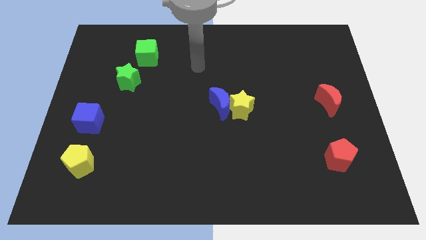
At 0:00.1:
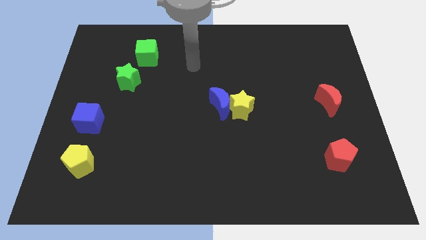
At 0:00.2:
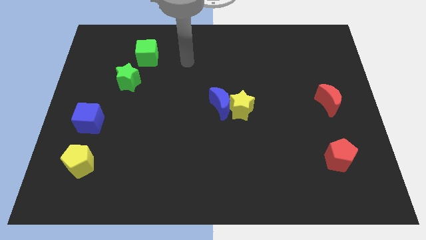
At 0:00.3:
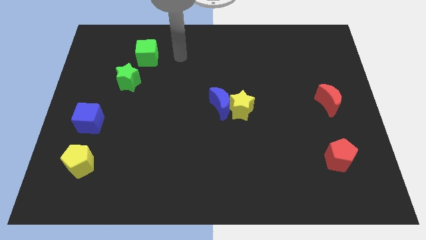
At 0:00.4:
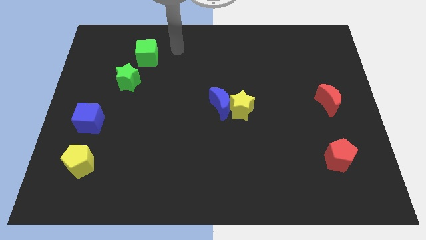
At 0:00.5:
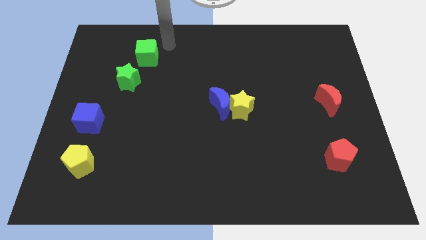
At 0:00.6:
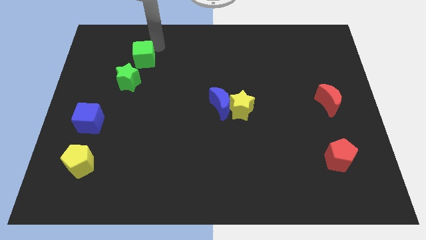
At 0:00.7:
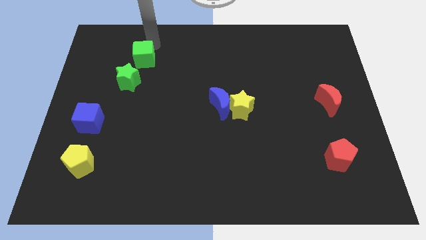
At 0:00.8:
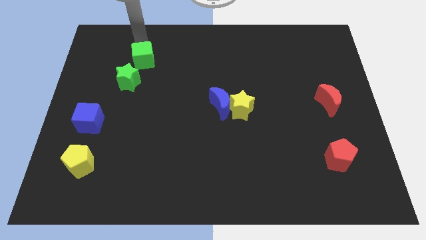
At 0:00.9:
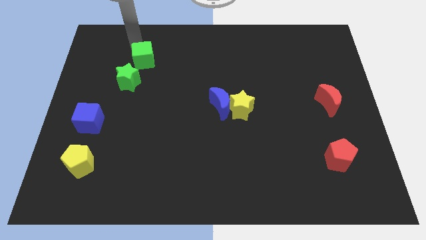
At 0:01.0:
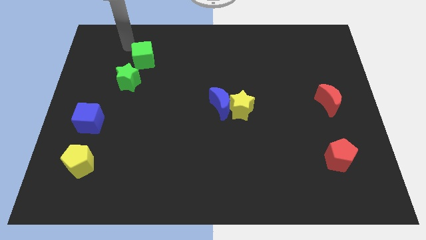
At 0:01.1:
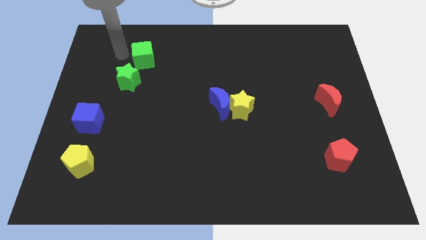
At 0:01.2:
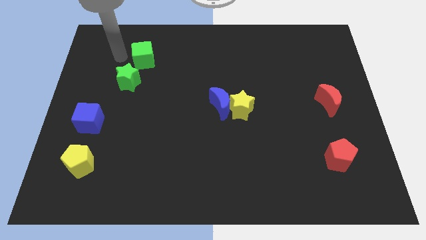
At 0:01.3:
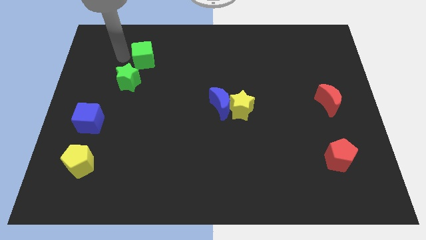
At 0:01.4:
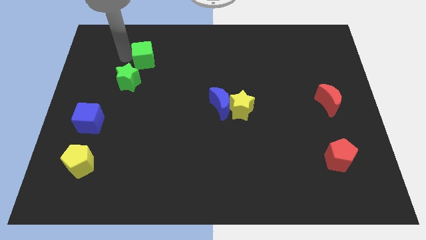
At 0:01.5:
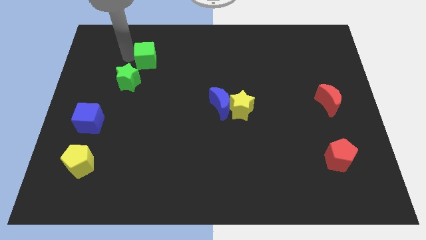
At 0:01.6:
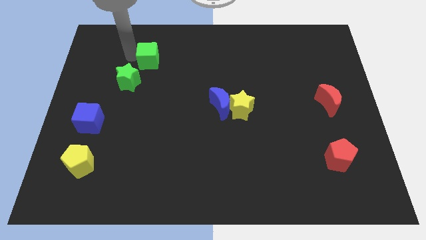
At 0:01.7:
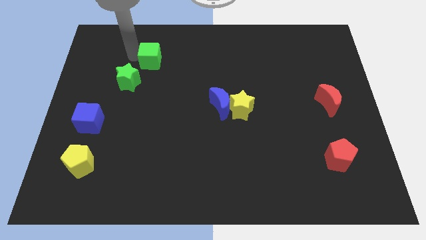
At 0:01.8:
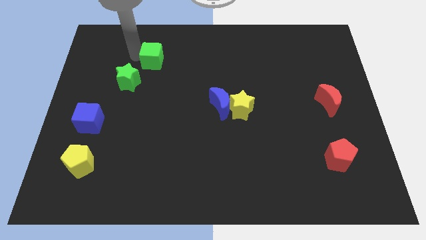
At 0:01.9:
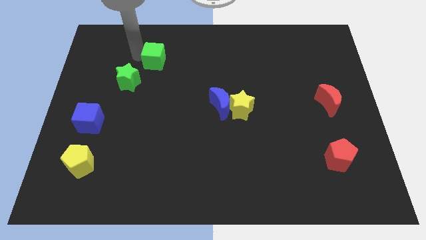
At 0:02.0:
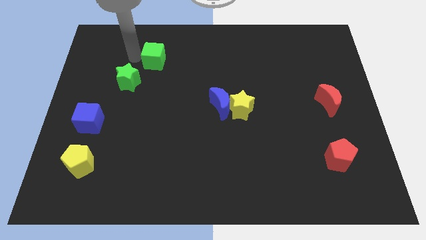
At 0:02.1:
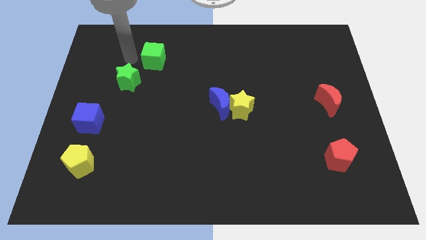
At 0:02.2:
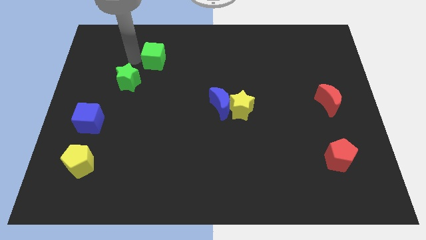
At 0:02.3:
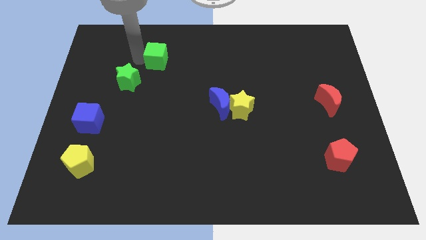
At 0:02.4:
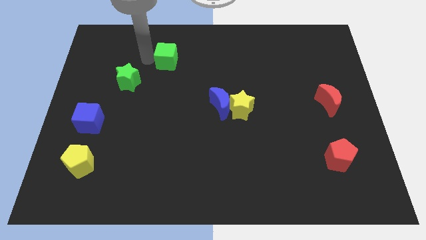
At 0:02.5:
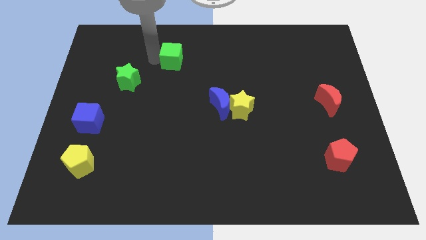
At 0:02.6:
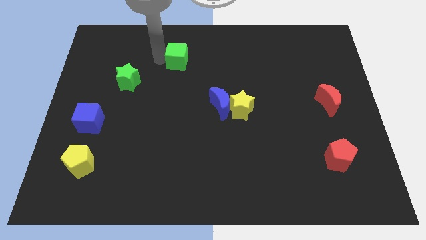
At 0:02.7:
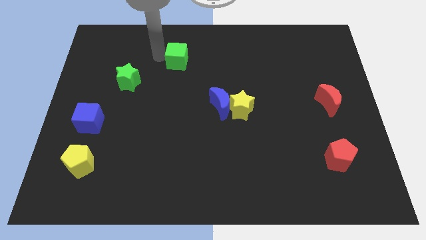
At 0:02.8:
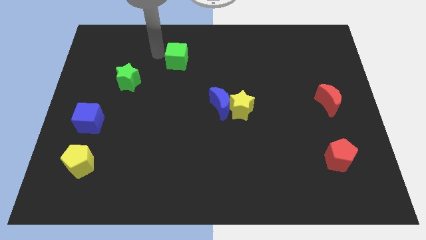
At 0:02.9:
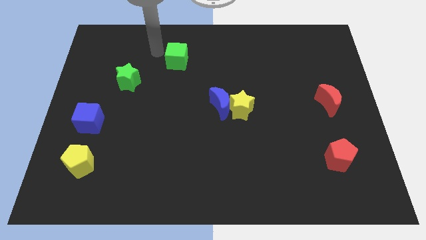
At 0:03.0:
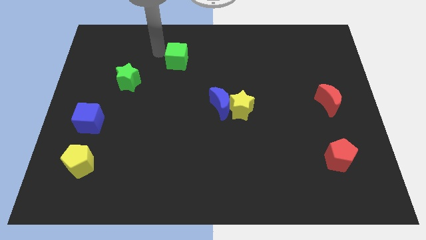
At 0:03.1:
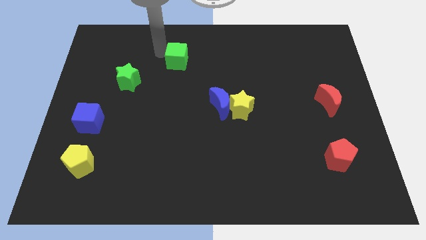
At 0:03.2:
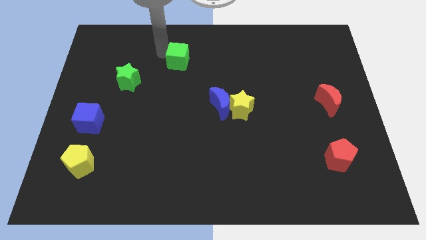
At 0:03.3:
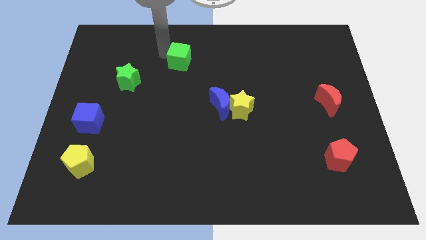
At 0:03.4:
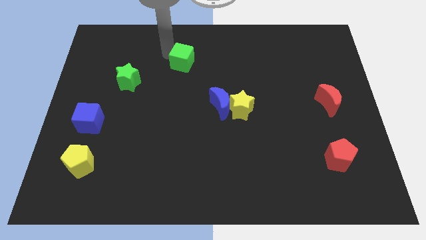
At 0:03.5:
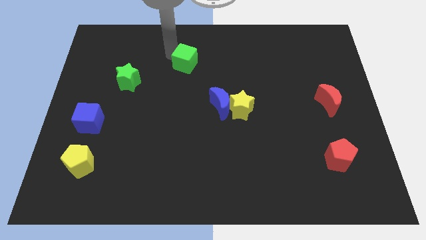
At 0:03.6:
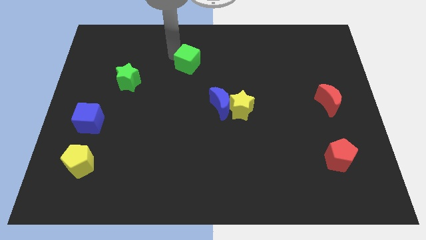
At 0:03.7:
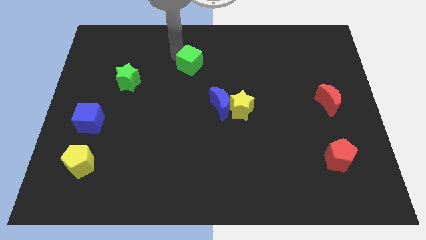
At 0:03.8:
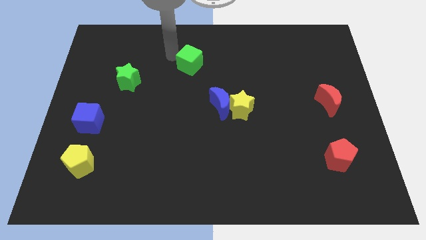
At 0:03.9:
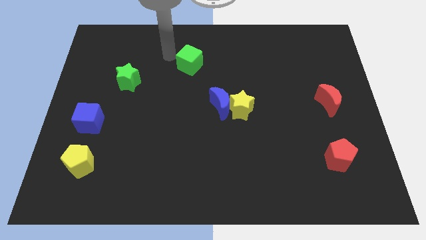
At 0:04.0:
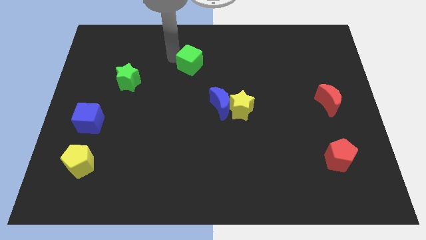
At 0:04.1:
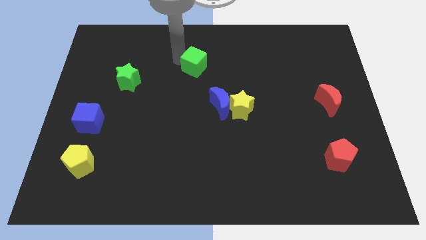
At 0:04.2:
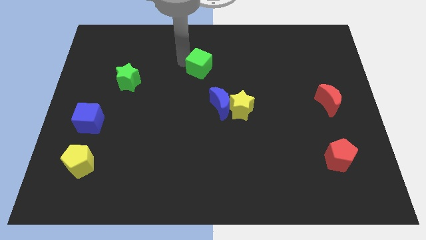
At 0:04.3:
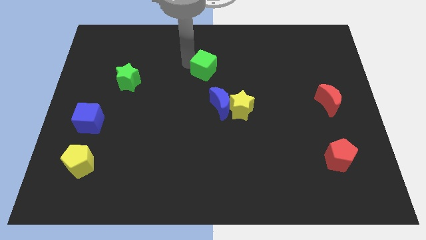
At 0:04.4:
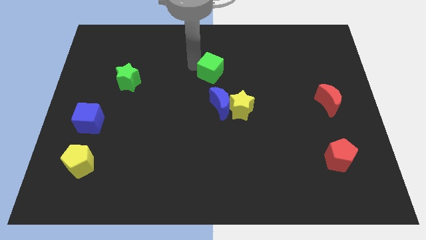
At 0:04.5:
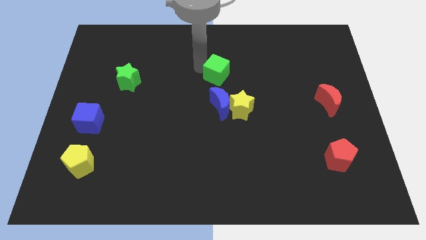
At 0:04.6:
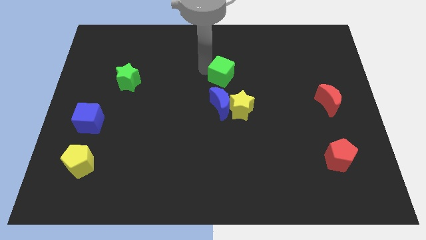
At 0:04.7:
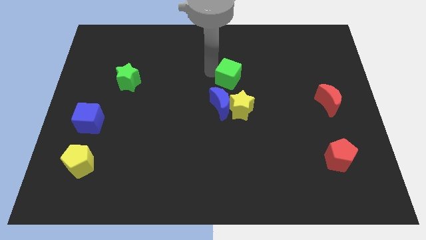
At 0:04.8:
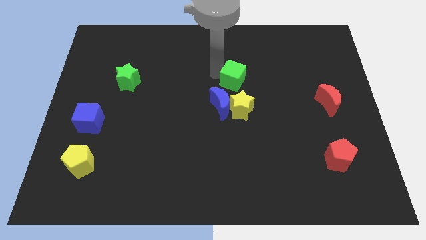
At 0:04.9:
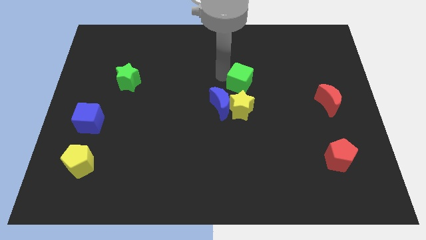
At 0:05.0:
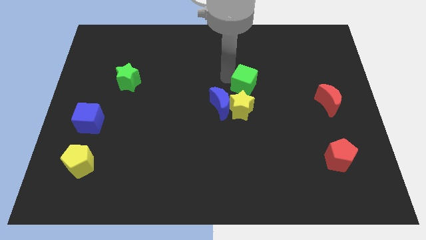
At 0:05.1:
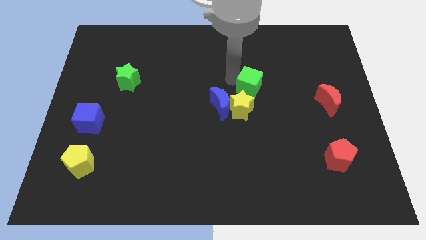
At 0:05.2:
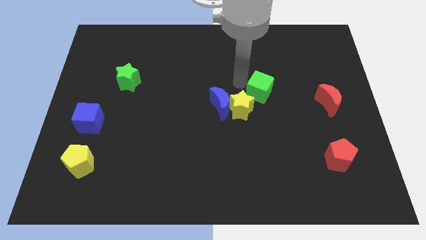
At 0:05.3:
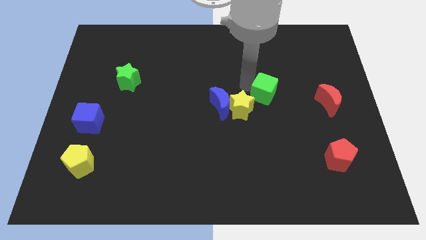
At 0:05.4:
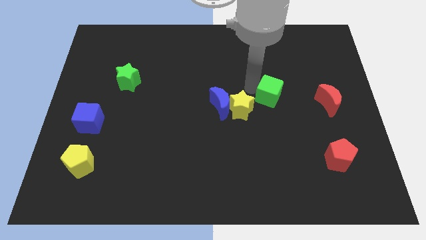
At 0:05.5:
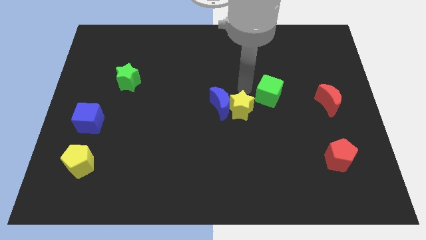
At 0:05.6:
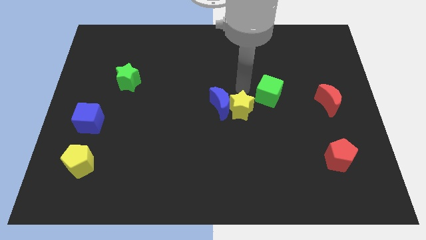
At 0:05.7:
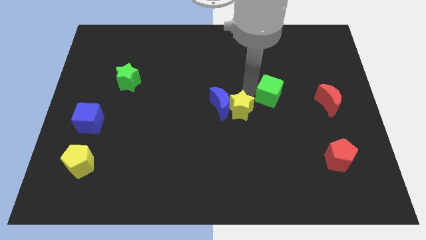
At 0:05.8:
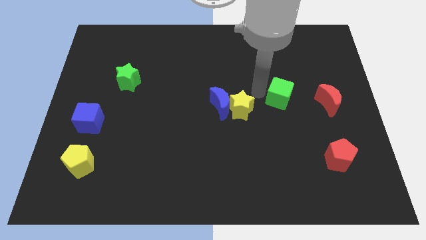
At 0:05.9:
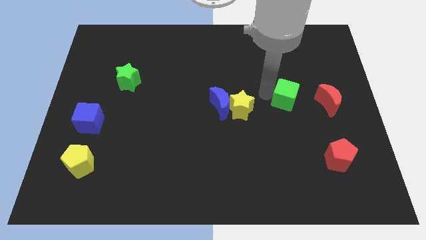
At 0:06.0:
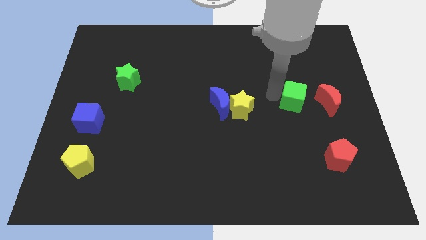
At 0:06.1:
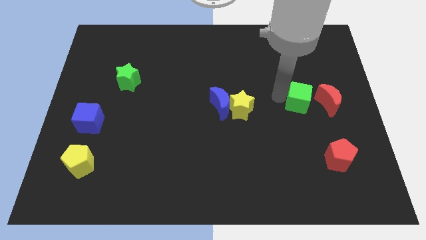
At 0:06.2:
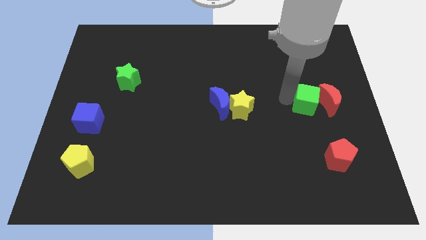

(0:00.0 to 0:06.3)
put the green cube towards the red moon

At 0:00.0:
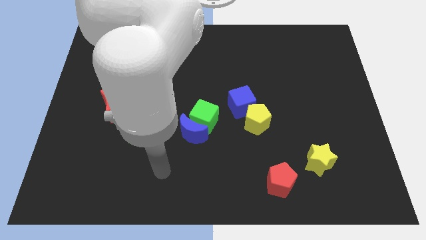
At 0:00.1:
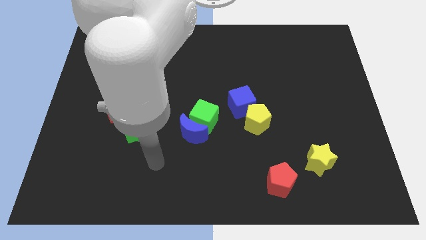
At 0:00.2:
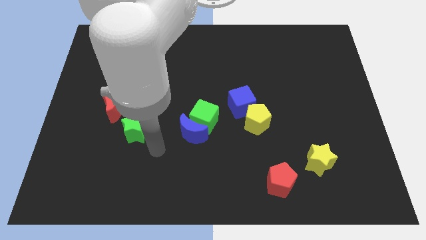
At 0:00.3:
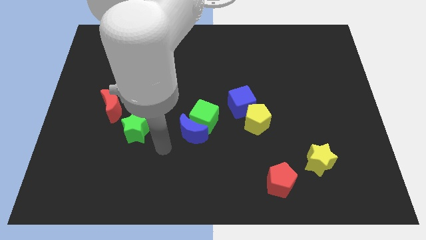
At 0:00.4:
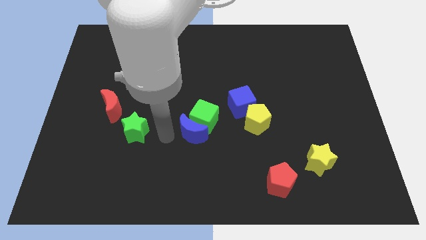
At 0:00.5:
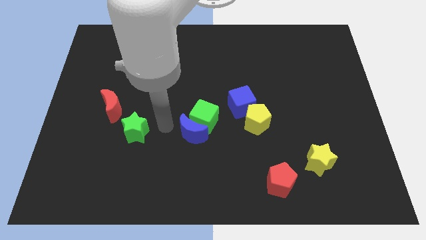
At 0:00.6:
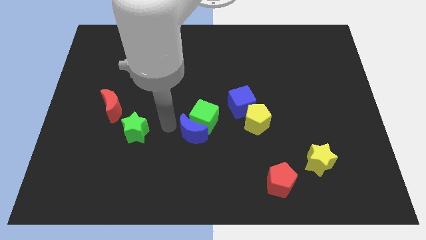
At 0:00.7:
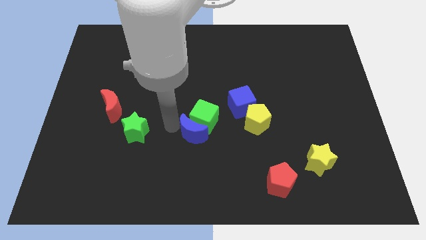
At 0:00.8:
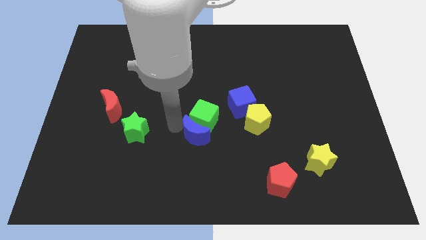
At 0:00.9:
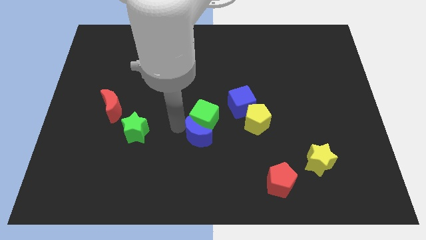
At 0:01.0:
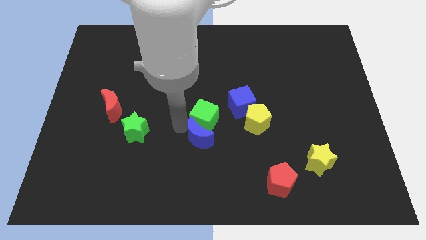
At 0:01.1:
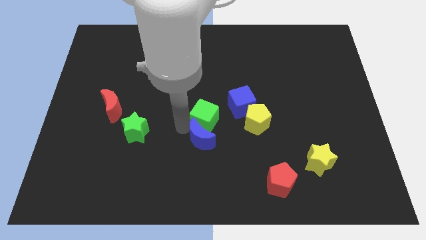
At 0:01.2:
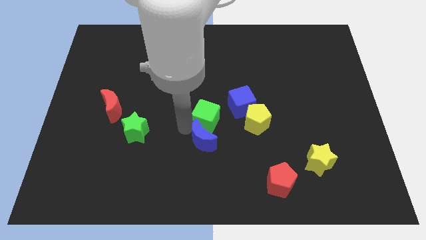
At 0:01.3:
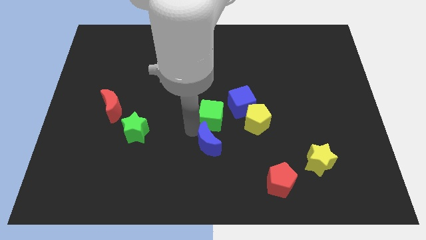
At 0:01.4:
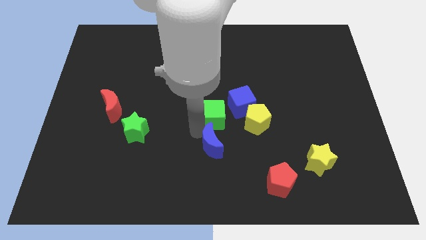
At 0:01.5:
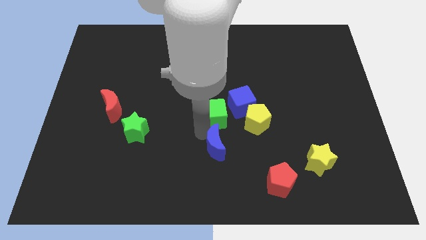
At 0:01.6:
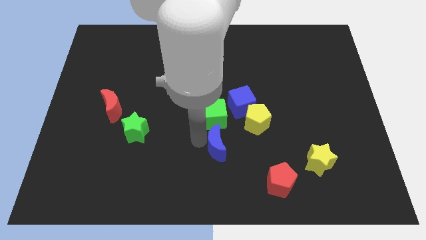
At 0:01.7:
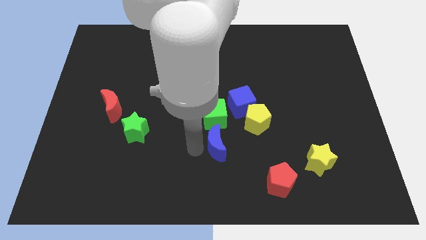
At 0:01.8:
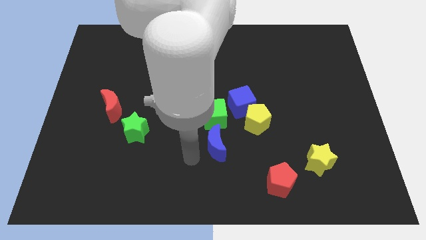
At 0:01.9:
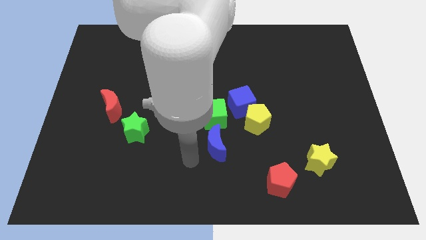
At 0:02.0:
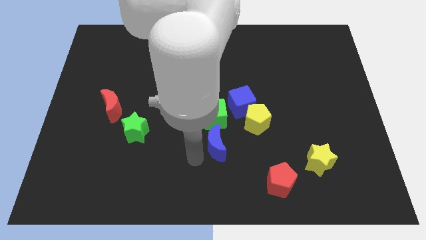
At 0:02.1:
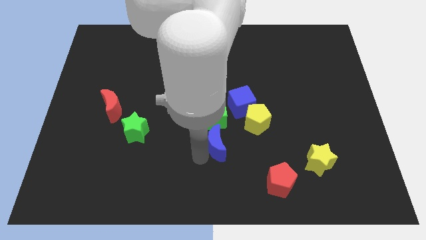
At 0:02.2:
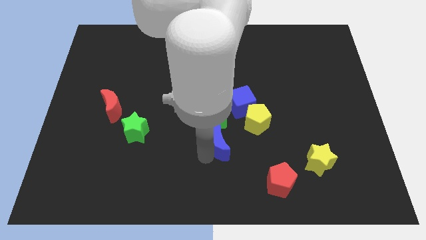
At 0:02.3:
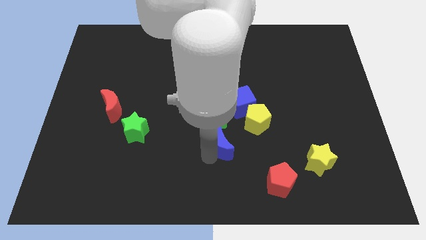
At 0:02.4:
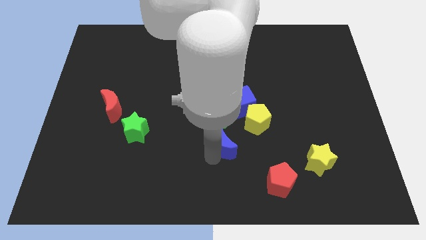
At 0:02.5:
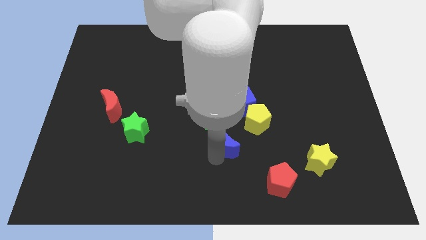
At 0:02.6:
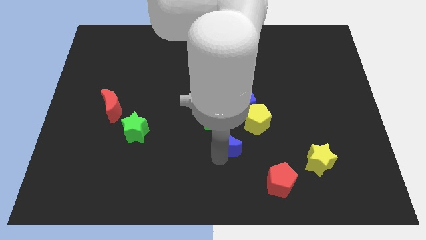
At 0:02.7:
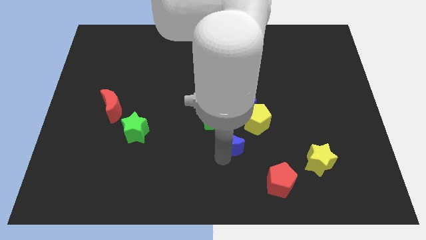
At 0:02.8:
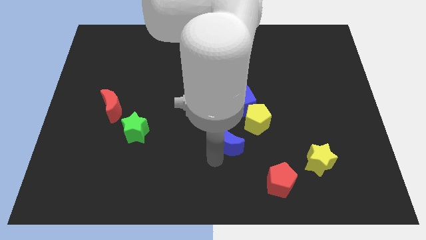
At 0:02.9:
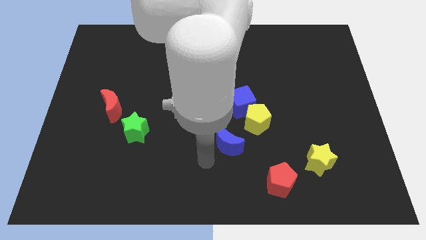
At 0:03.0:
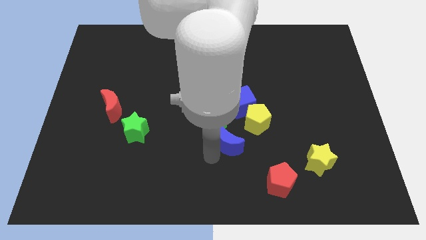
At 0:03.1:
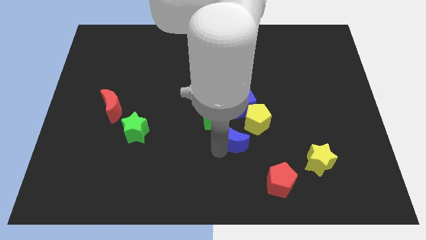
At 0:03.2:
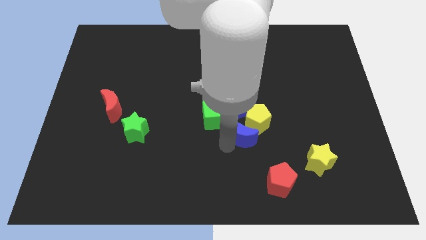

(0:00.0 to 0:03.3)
move the blue moon to the yellow pentagon
